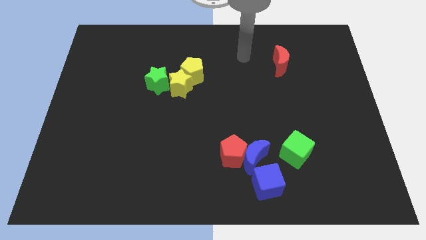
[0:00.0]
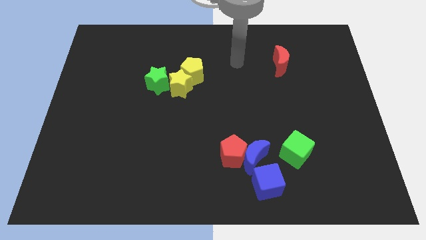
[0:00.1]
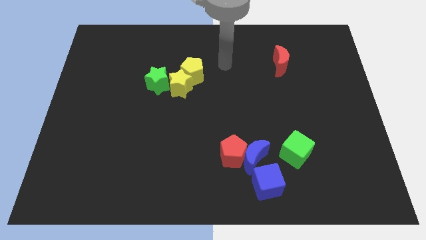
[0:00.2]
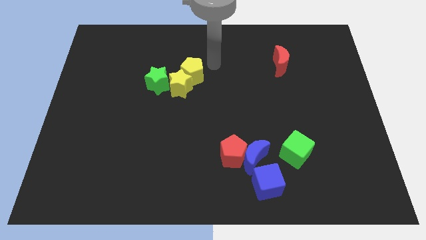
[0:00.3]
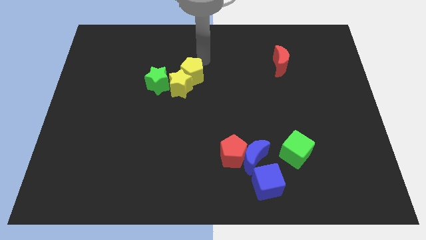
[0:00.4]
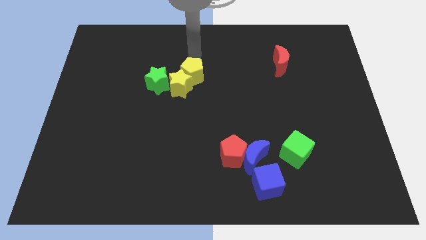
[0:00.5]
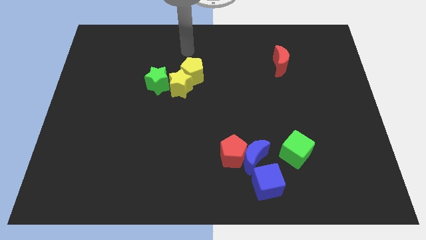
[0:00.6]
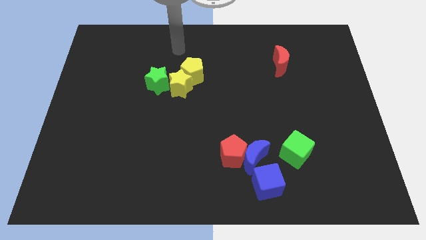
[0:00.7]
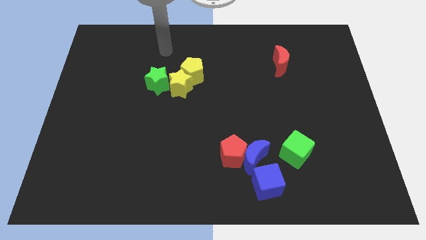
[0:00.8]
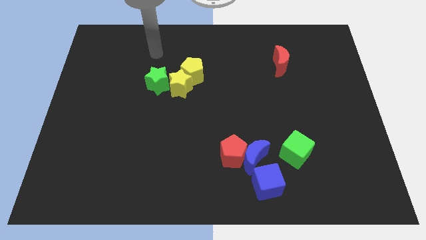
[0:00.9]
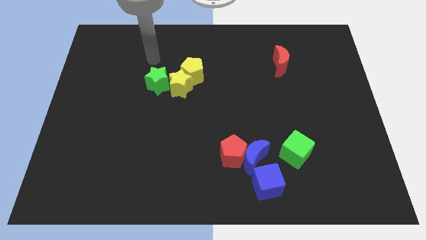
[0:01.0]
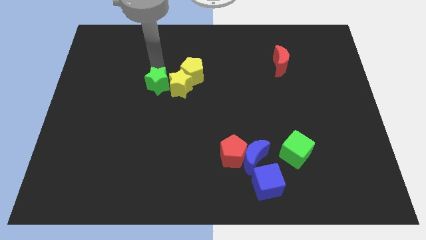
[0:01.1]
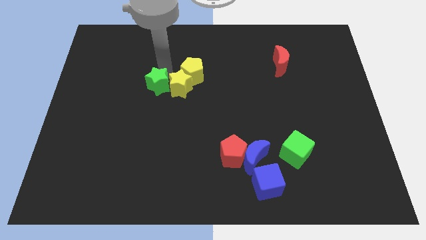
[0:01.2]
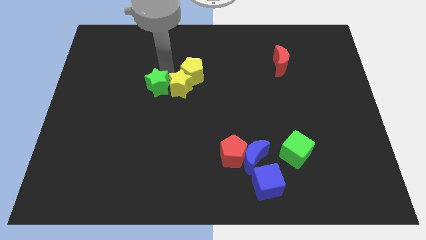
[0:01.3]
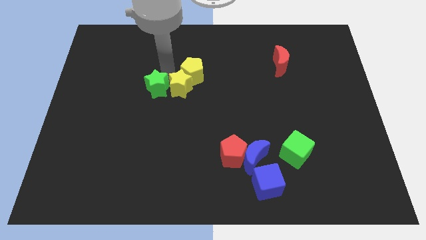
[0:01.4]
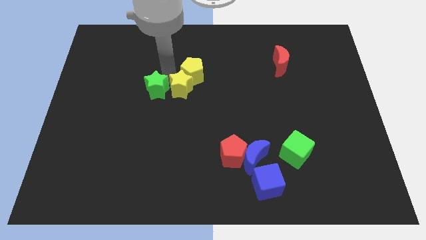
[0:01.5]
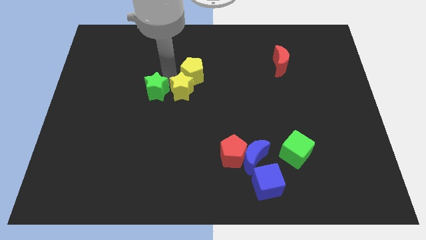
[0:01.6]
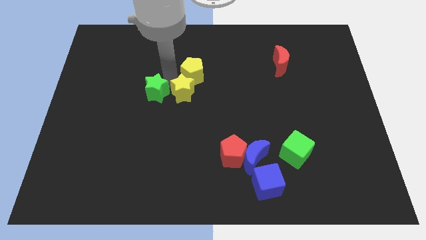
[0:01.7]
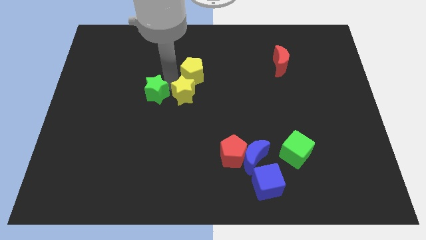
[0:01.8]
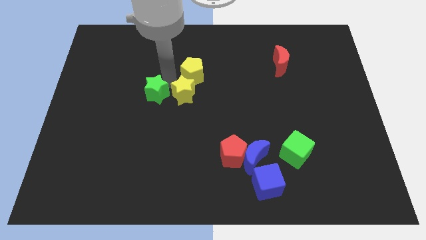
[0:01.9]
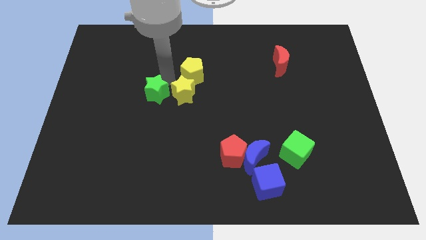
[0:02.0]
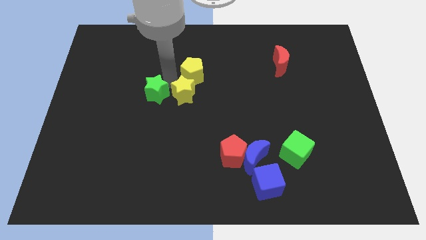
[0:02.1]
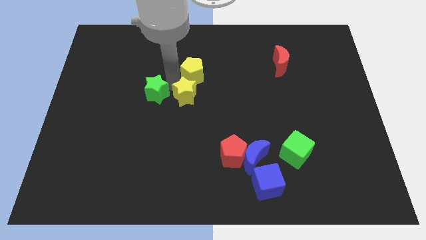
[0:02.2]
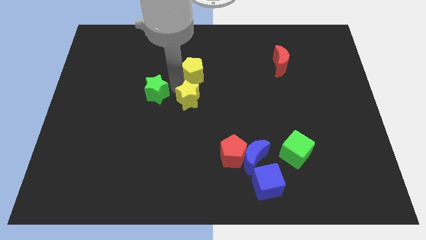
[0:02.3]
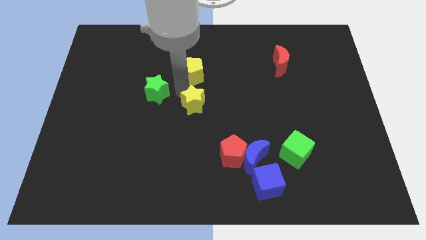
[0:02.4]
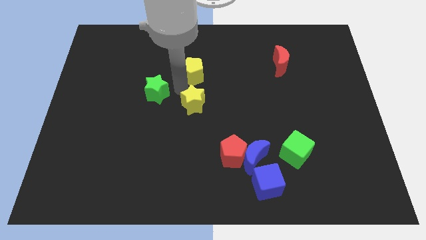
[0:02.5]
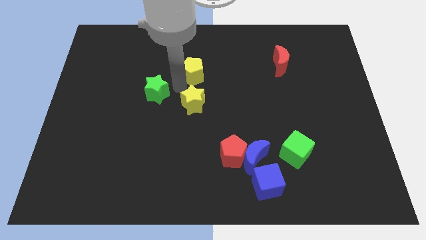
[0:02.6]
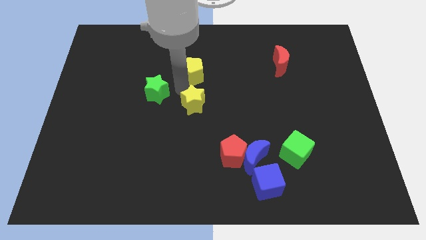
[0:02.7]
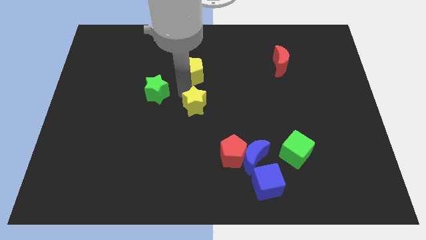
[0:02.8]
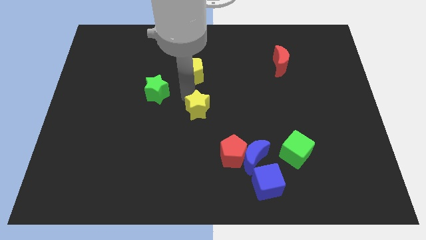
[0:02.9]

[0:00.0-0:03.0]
move the yellow star away from the yellow pentagon and green star

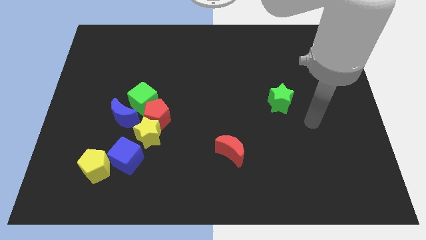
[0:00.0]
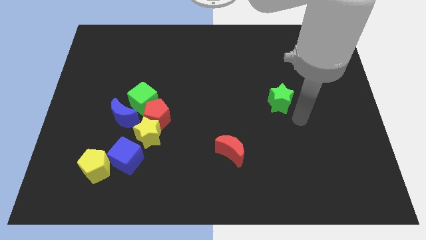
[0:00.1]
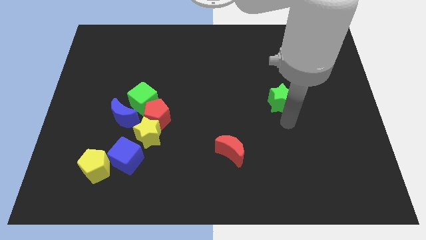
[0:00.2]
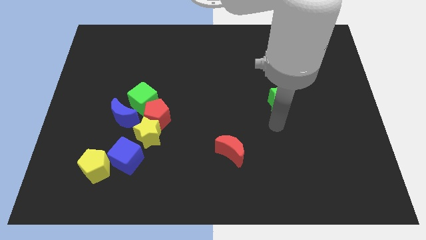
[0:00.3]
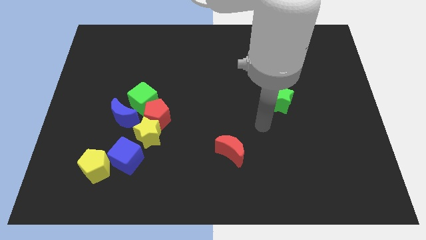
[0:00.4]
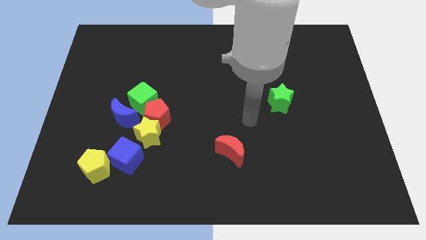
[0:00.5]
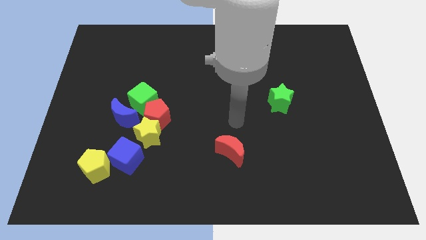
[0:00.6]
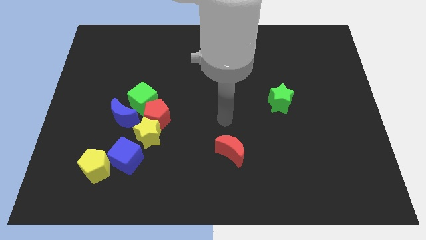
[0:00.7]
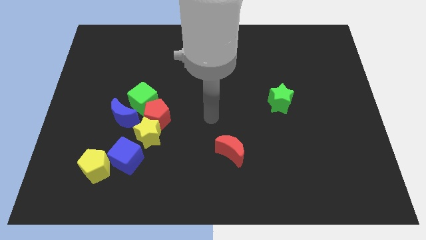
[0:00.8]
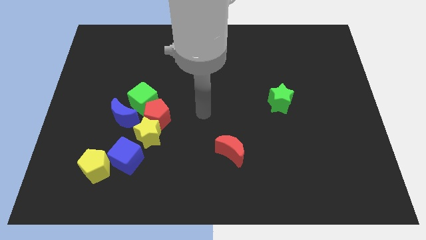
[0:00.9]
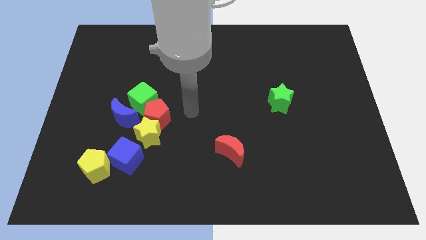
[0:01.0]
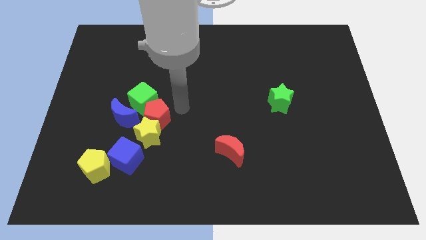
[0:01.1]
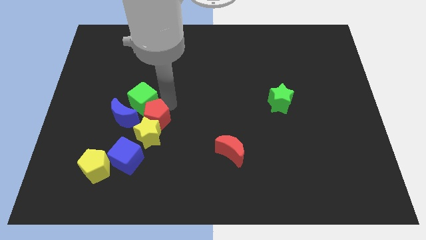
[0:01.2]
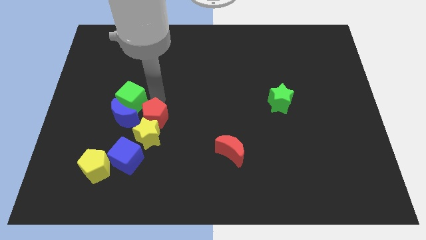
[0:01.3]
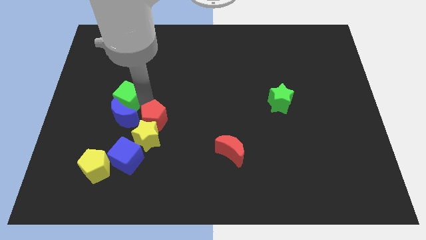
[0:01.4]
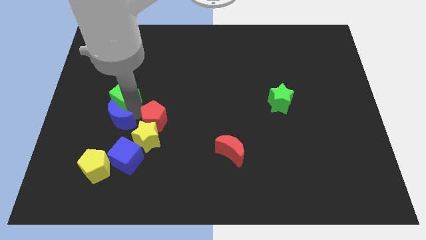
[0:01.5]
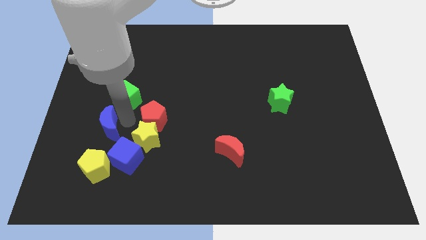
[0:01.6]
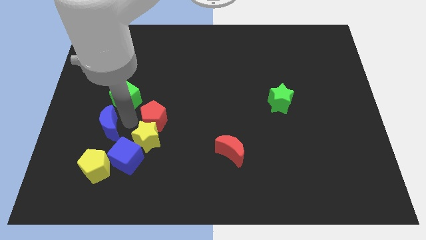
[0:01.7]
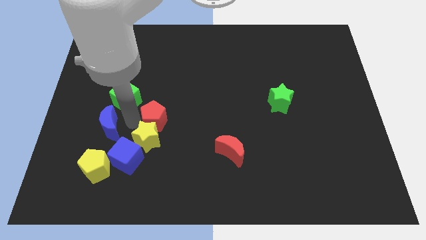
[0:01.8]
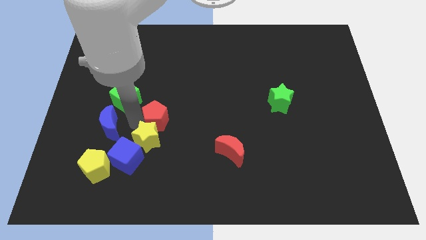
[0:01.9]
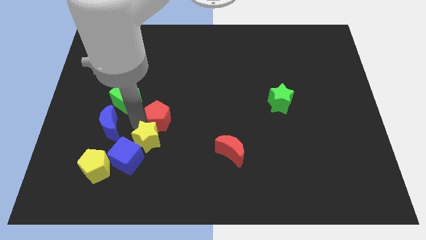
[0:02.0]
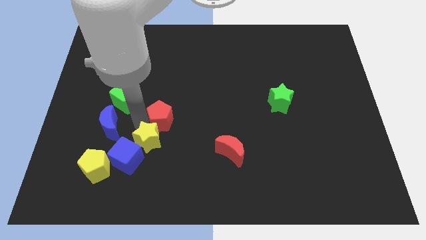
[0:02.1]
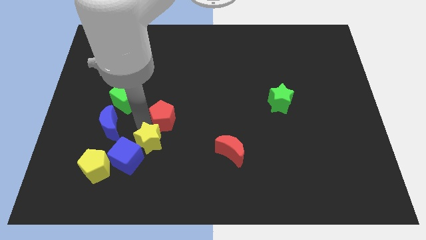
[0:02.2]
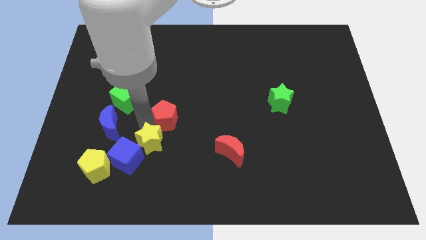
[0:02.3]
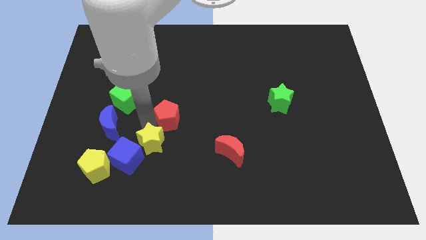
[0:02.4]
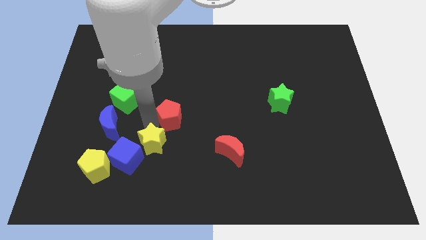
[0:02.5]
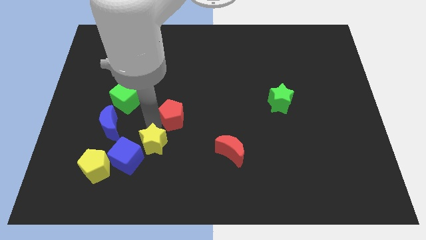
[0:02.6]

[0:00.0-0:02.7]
move the red pentagon away from the yellow star, green cube, and blue moon

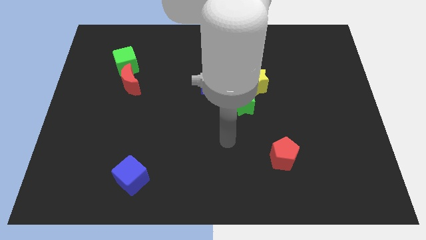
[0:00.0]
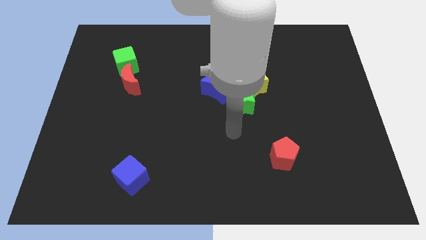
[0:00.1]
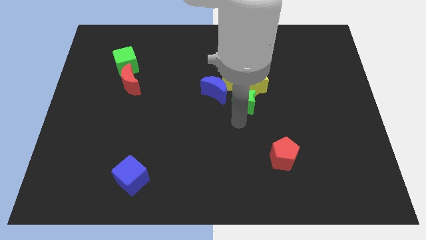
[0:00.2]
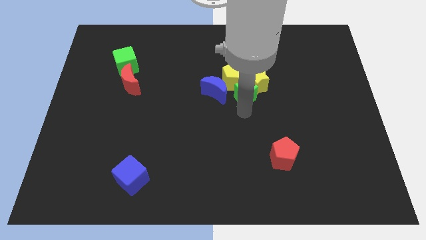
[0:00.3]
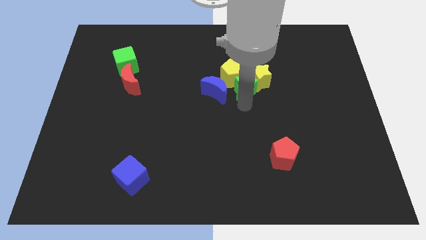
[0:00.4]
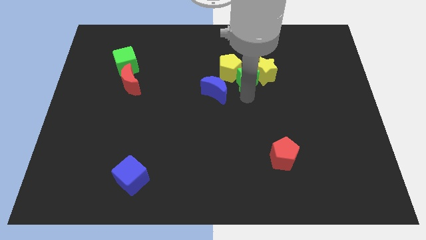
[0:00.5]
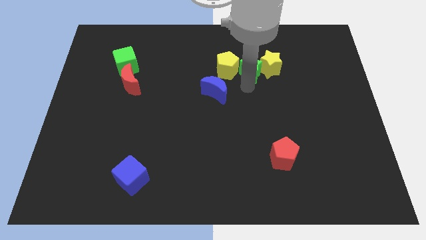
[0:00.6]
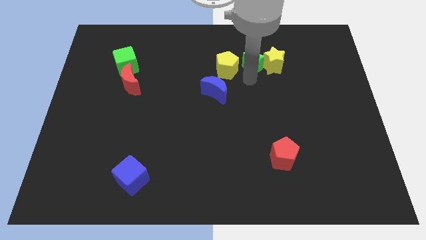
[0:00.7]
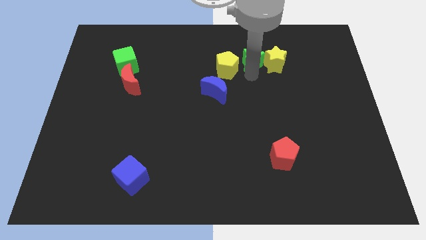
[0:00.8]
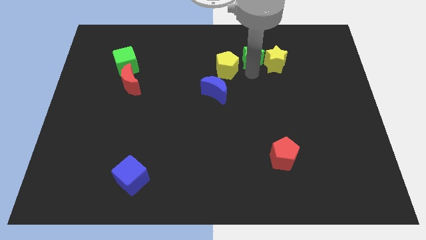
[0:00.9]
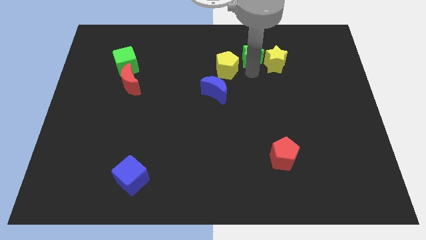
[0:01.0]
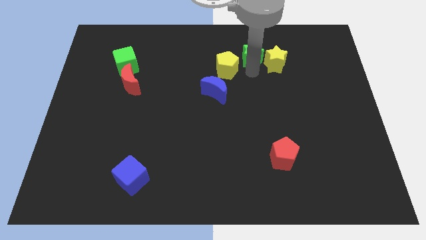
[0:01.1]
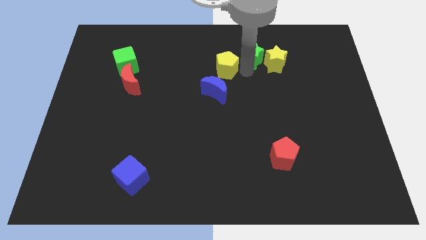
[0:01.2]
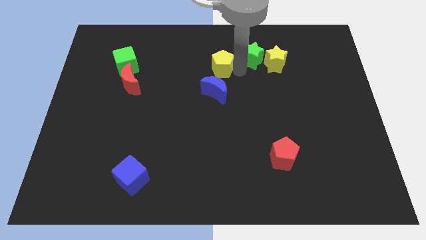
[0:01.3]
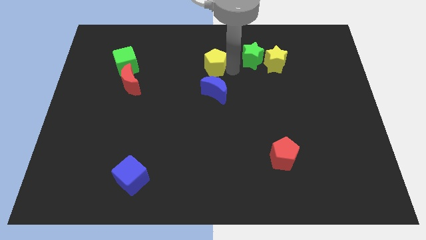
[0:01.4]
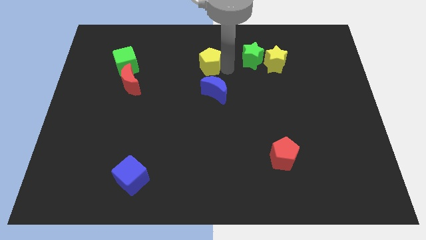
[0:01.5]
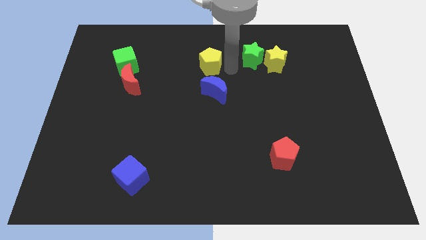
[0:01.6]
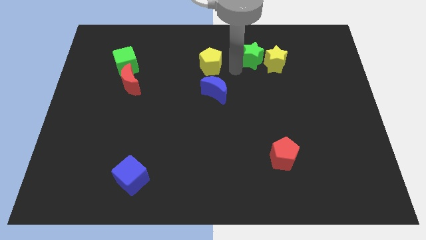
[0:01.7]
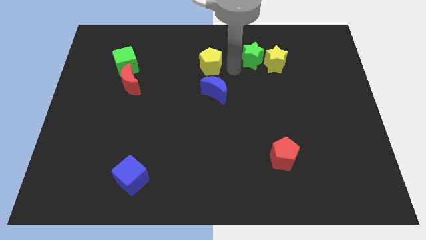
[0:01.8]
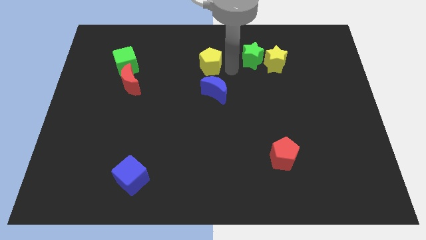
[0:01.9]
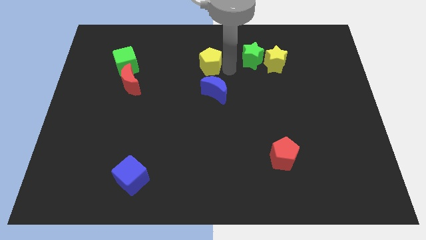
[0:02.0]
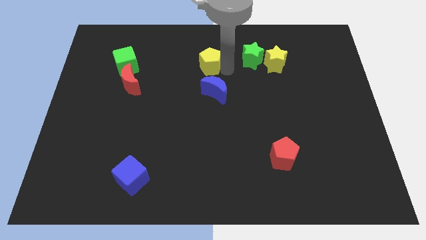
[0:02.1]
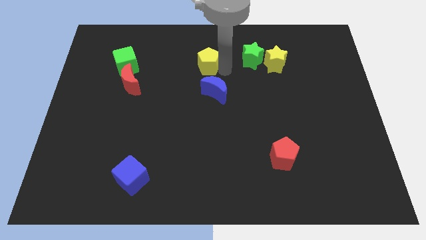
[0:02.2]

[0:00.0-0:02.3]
pull the yellow pentagon apart from the blue moon, yellow star, and green star

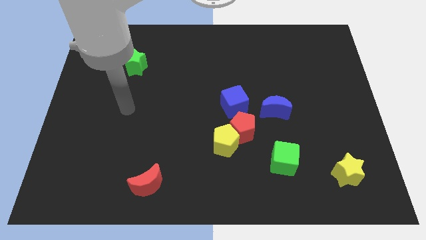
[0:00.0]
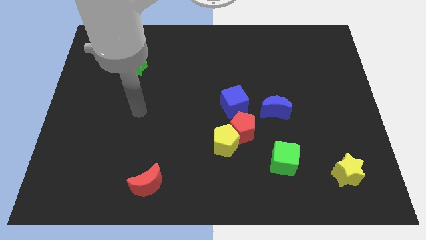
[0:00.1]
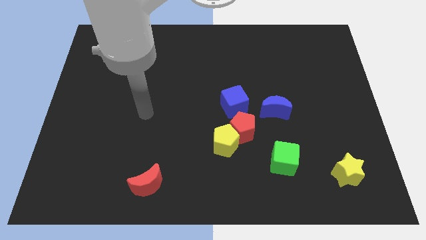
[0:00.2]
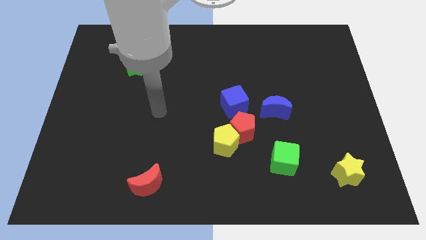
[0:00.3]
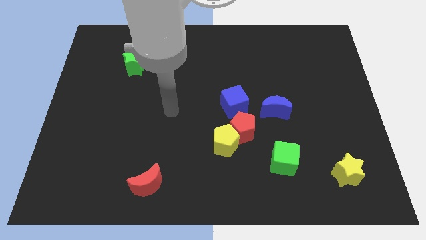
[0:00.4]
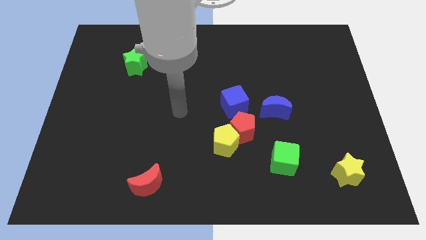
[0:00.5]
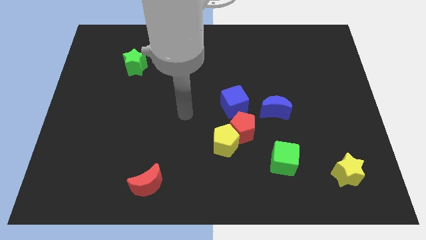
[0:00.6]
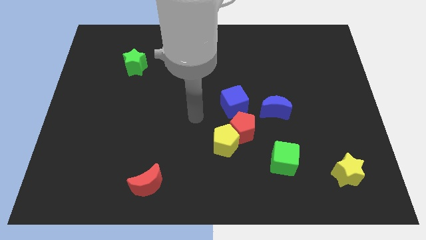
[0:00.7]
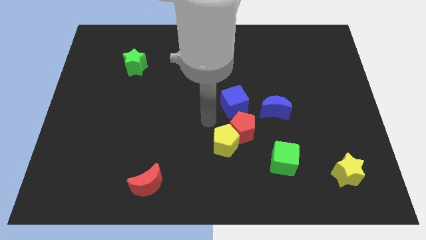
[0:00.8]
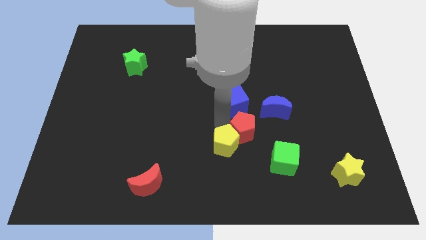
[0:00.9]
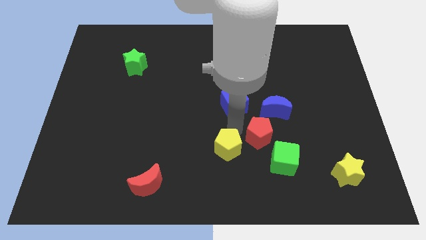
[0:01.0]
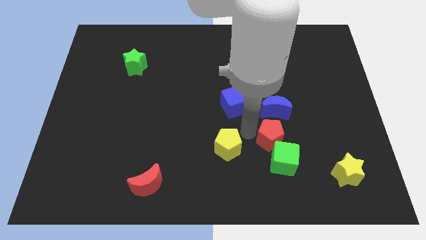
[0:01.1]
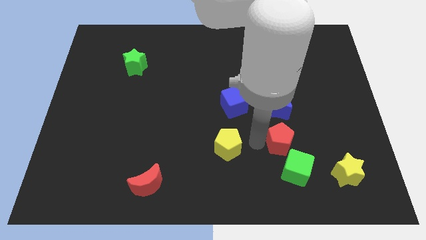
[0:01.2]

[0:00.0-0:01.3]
pull the yellow pentagon apart from the red pentagon
